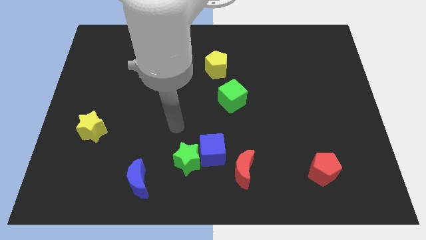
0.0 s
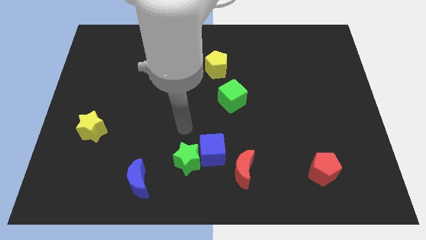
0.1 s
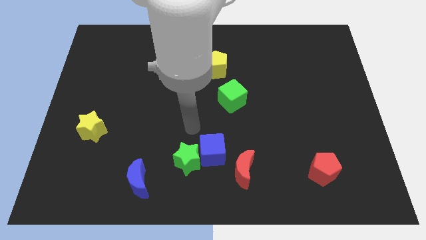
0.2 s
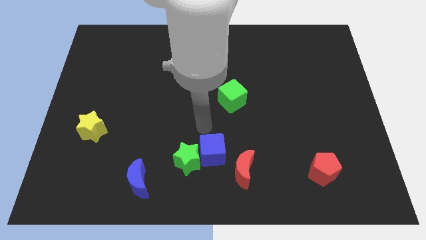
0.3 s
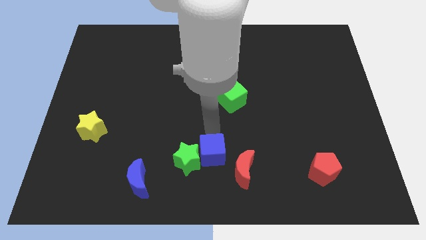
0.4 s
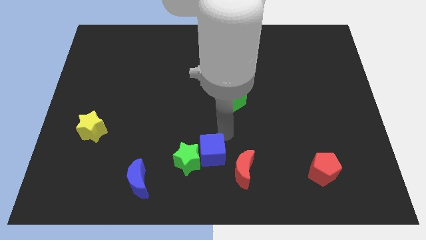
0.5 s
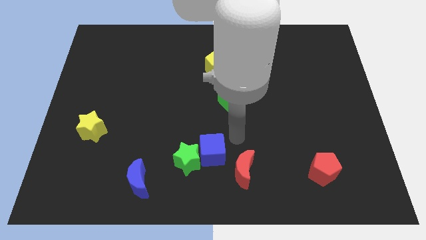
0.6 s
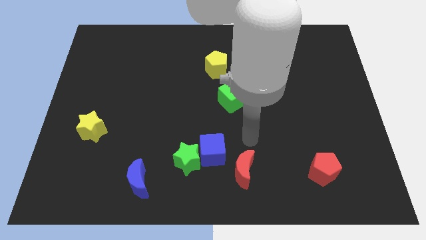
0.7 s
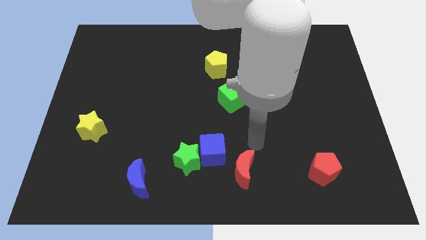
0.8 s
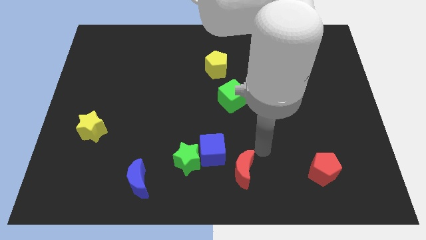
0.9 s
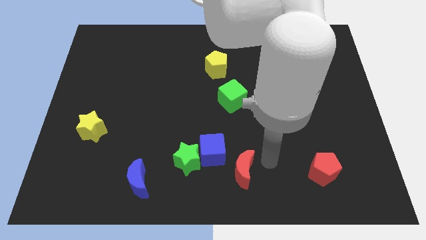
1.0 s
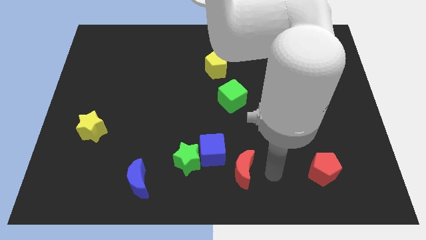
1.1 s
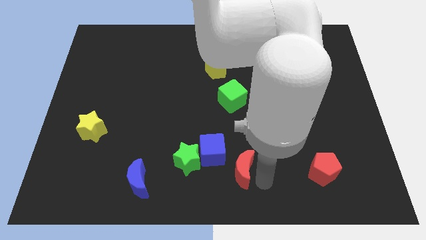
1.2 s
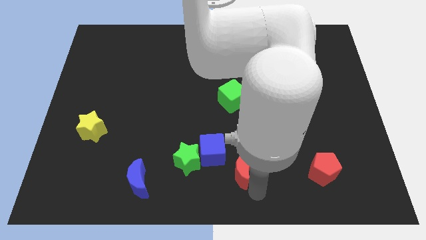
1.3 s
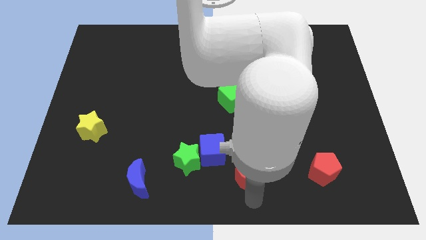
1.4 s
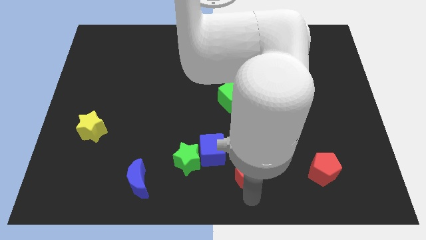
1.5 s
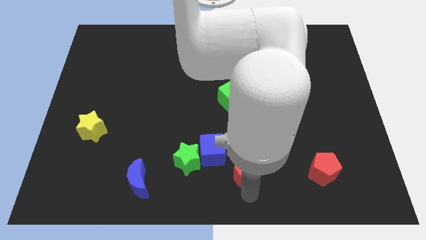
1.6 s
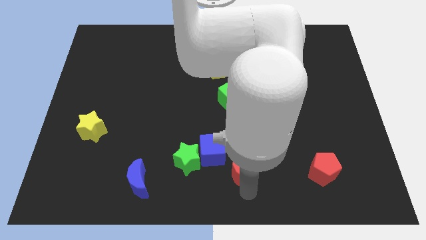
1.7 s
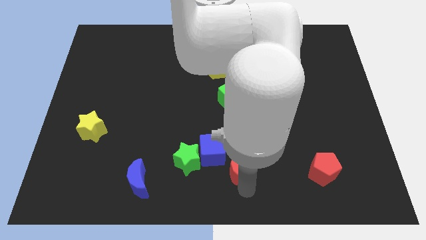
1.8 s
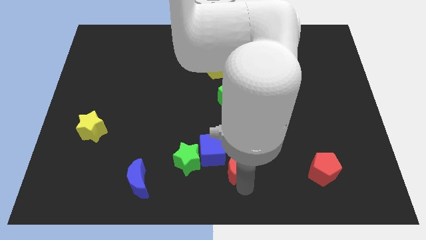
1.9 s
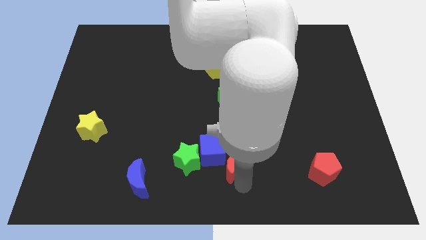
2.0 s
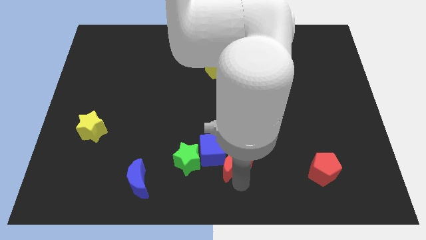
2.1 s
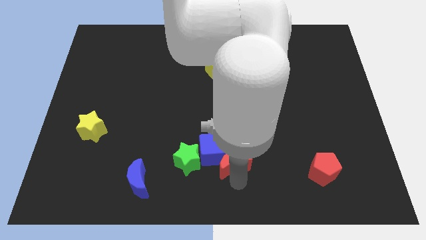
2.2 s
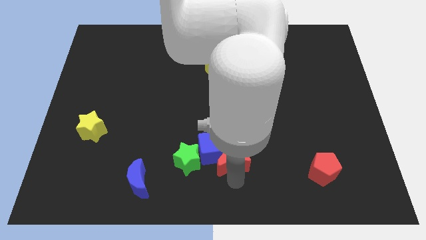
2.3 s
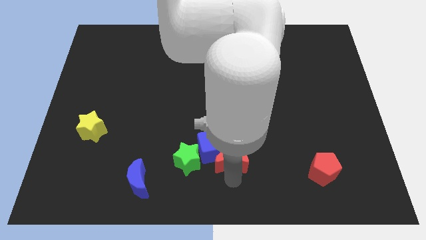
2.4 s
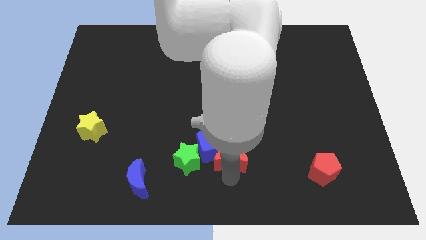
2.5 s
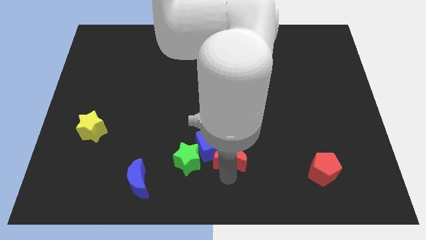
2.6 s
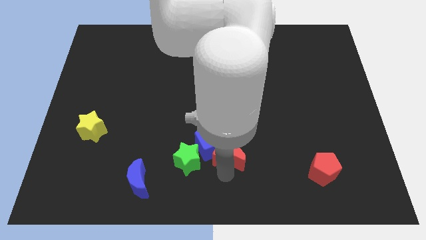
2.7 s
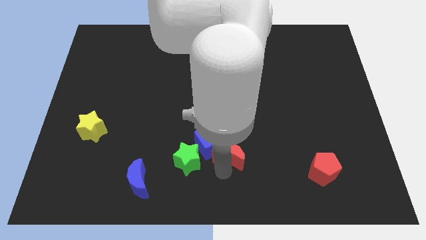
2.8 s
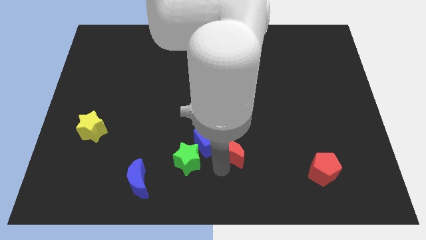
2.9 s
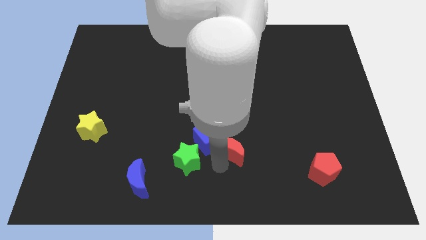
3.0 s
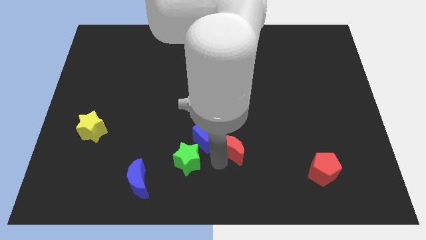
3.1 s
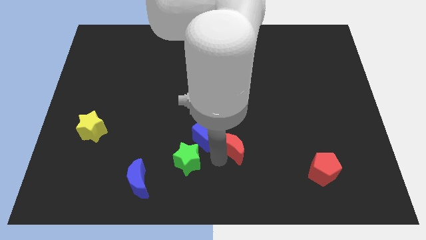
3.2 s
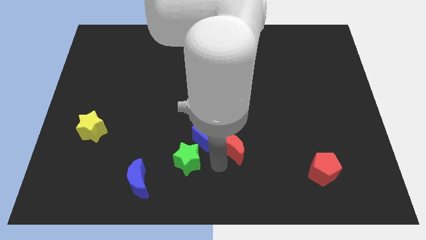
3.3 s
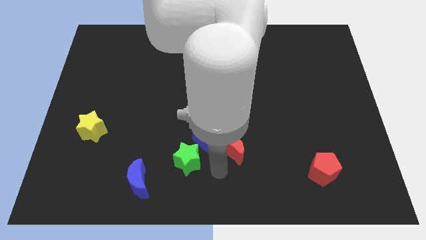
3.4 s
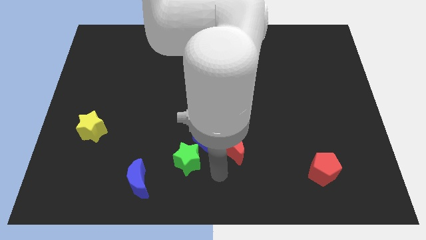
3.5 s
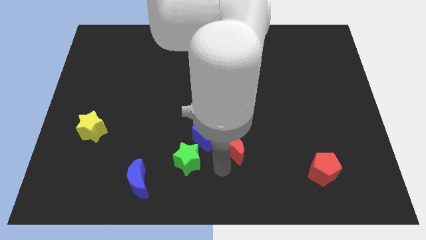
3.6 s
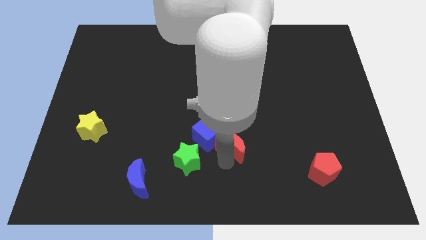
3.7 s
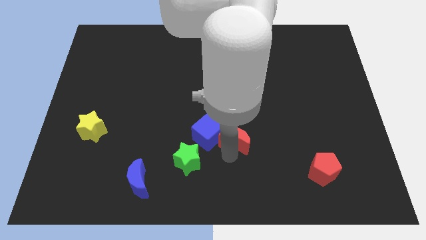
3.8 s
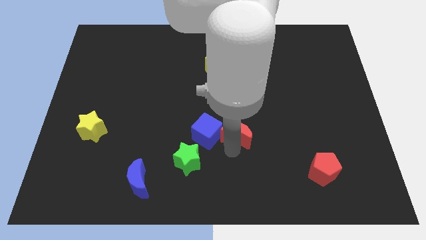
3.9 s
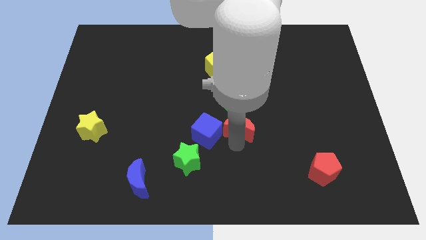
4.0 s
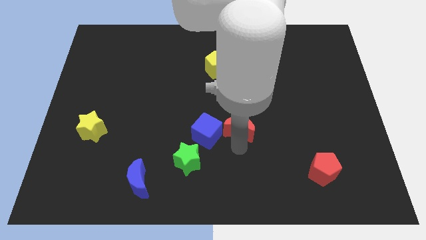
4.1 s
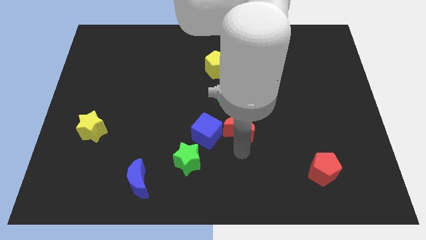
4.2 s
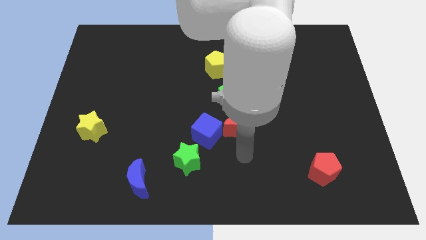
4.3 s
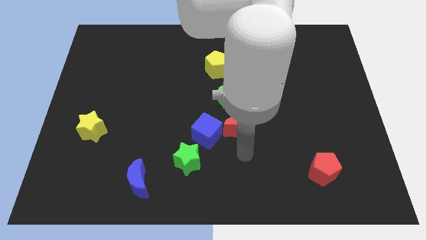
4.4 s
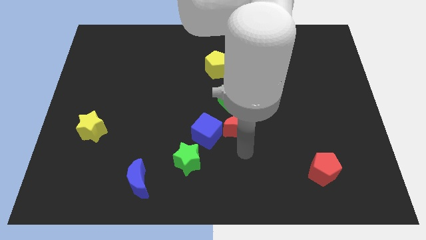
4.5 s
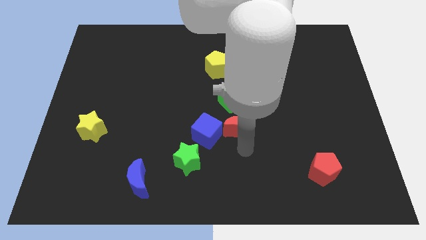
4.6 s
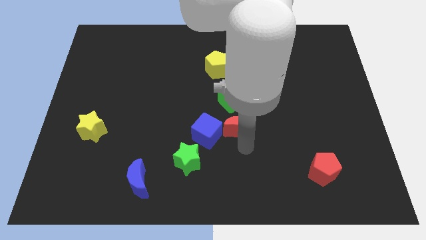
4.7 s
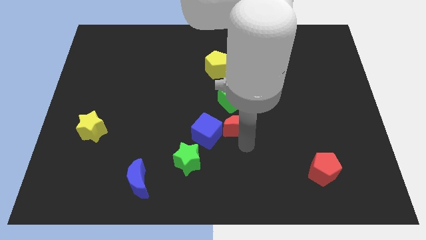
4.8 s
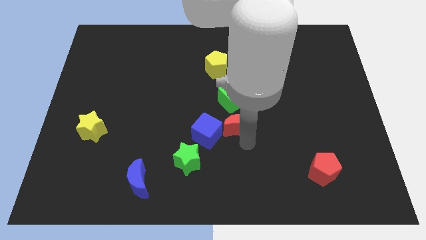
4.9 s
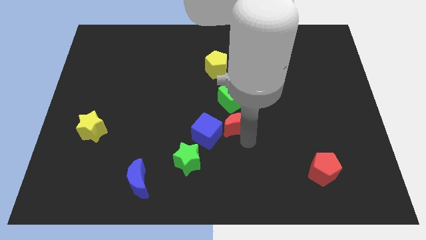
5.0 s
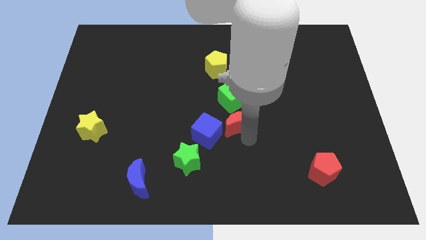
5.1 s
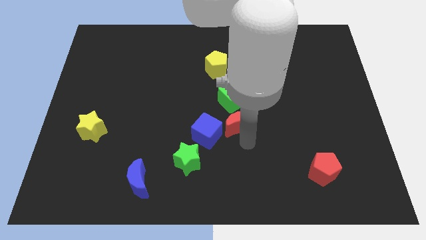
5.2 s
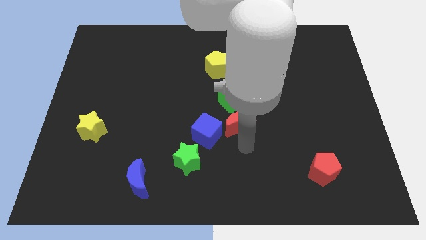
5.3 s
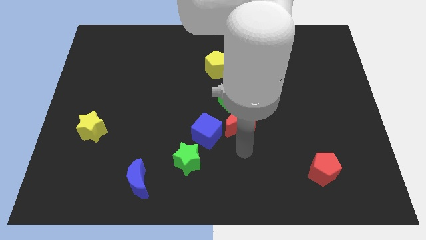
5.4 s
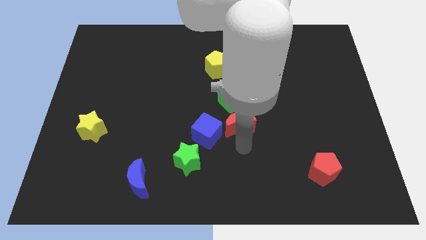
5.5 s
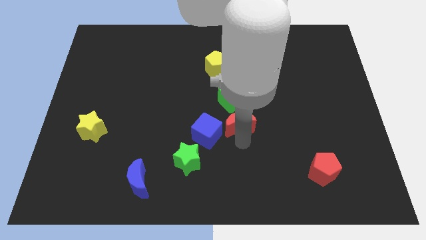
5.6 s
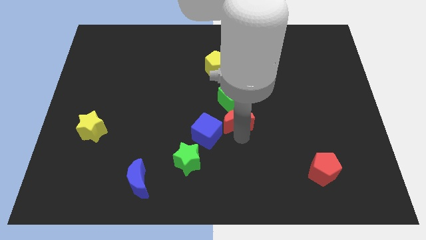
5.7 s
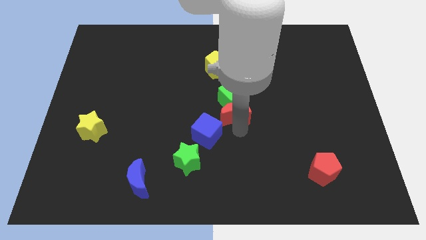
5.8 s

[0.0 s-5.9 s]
put the red moon towards the green cube

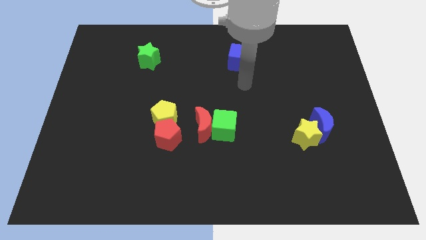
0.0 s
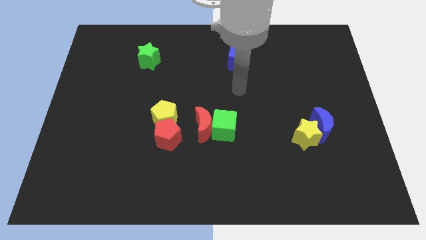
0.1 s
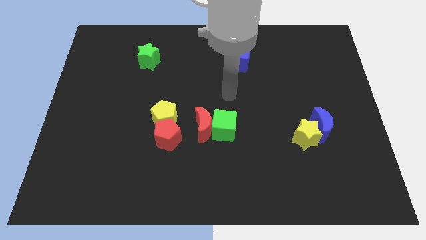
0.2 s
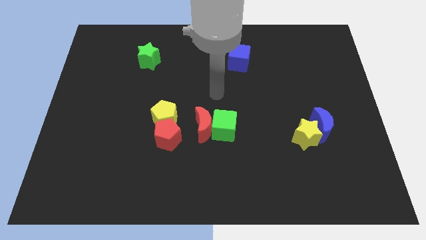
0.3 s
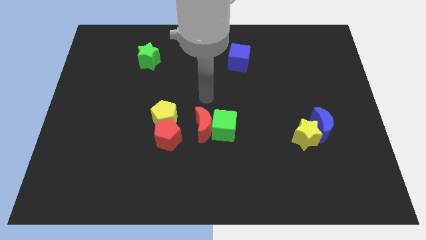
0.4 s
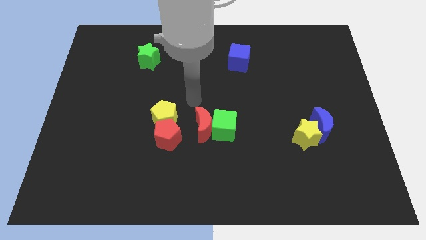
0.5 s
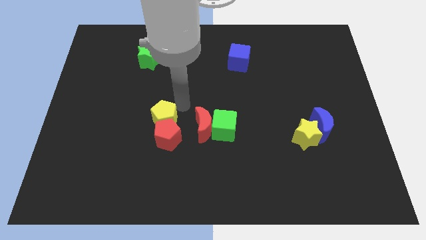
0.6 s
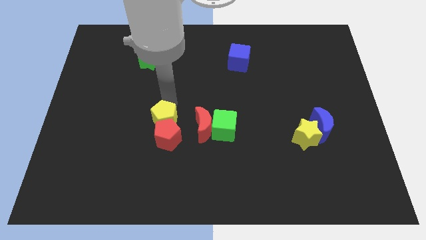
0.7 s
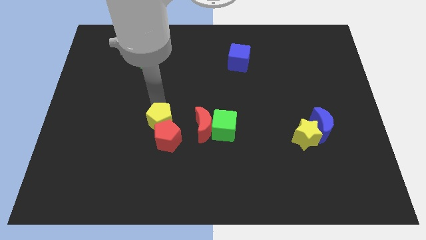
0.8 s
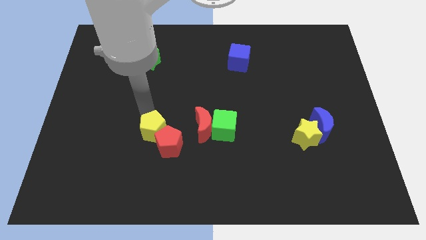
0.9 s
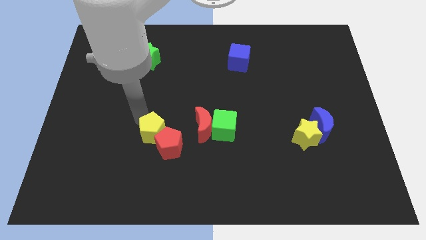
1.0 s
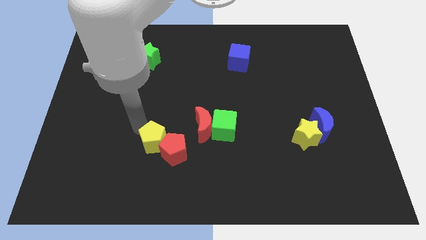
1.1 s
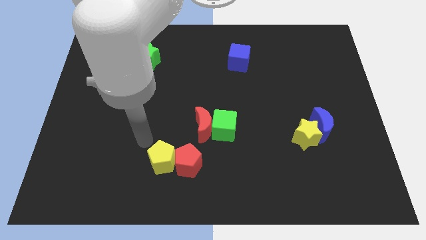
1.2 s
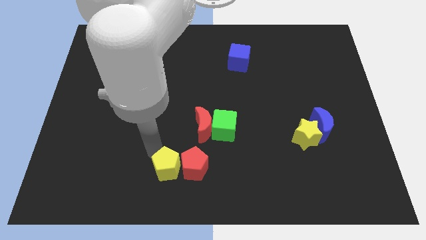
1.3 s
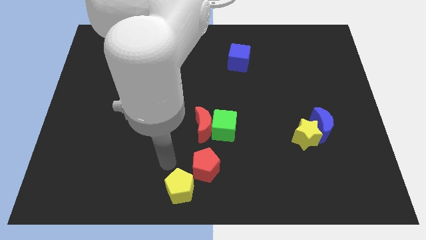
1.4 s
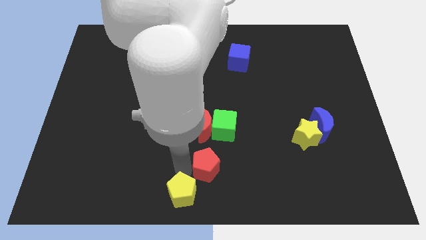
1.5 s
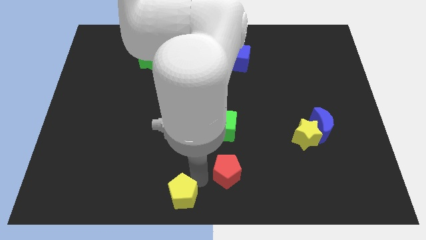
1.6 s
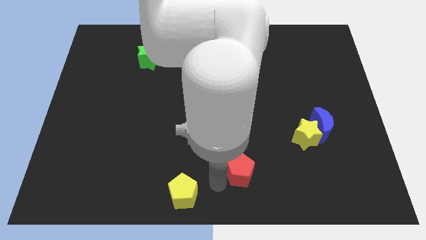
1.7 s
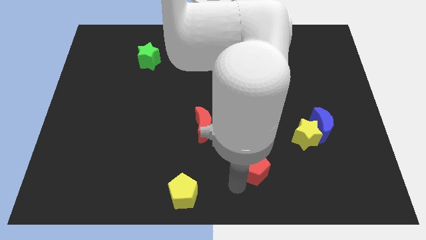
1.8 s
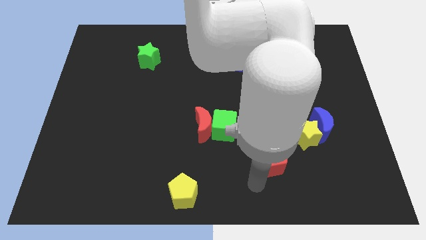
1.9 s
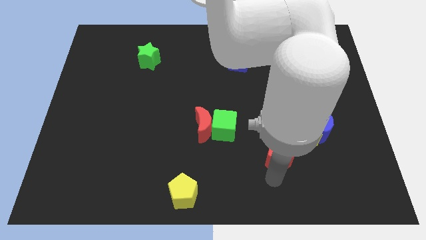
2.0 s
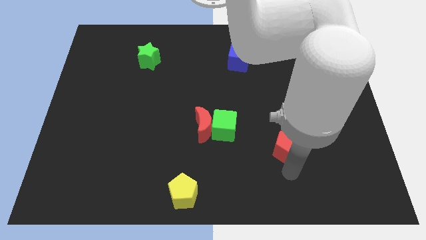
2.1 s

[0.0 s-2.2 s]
push the red pentagon close to the yellow star
